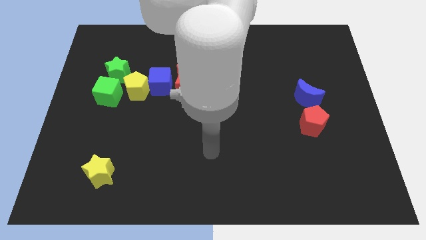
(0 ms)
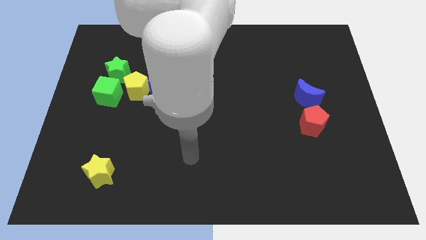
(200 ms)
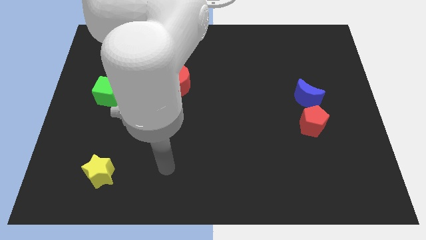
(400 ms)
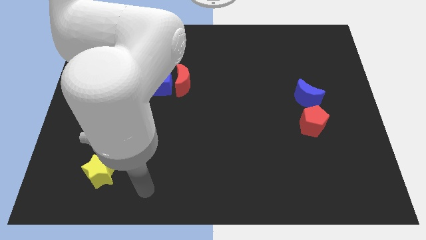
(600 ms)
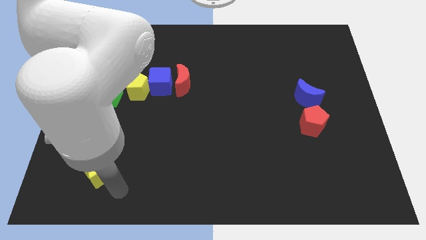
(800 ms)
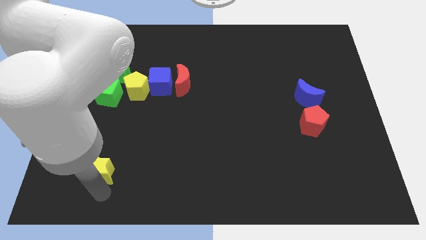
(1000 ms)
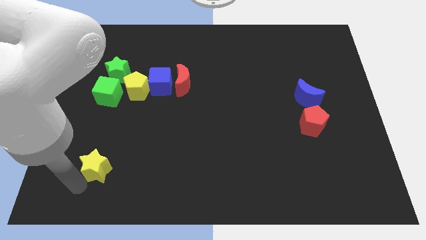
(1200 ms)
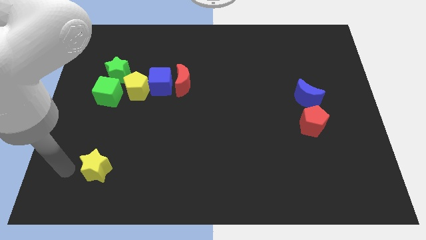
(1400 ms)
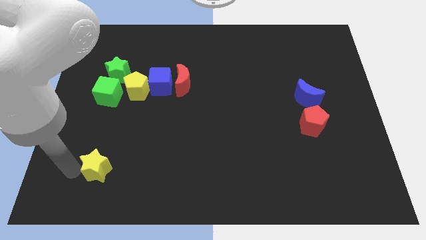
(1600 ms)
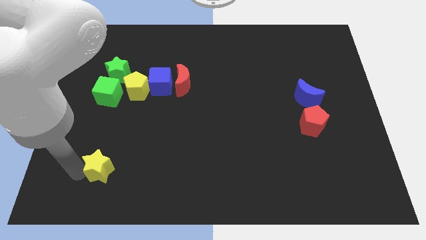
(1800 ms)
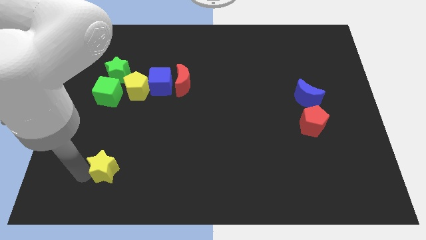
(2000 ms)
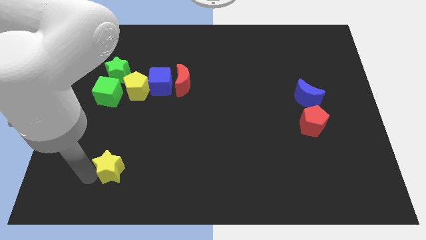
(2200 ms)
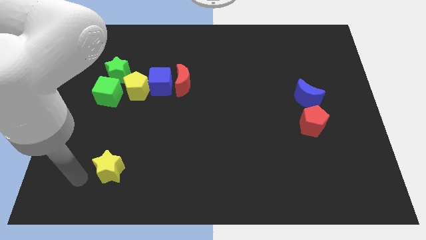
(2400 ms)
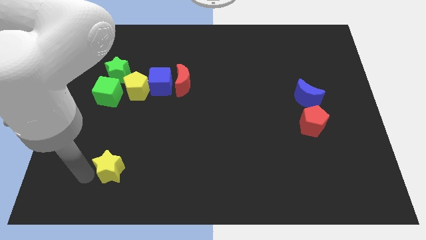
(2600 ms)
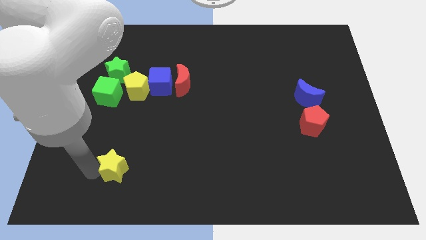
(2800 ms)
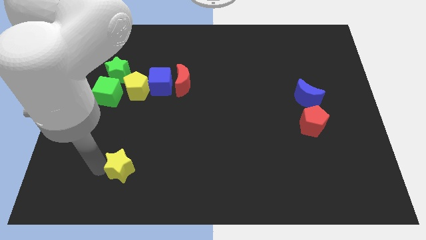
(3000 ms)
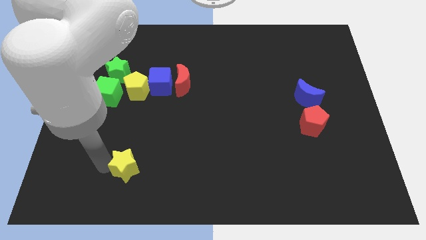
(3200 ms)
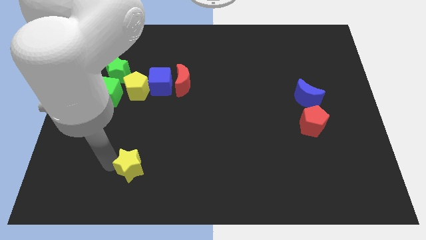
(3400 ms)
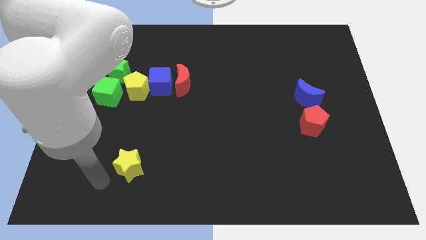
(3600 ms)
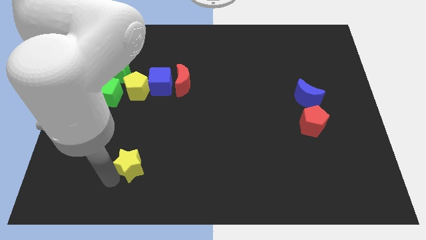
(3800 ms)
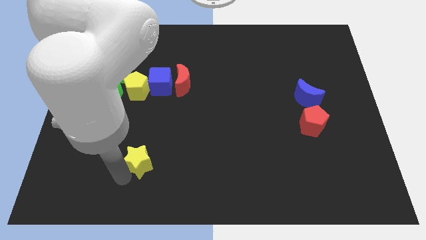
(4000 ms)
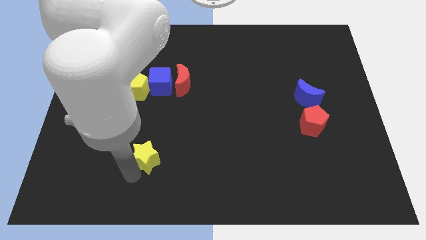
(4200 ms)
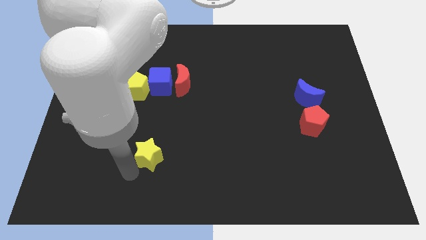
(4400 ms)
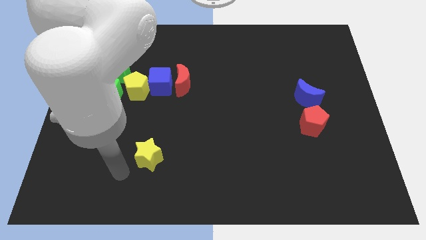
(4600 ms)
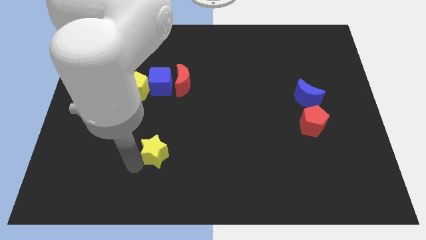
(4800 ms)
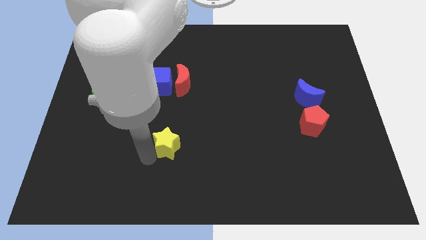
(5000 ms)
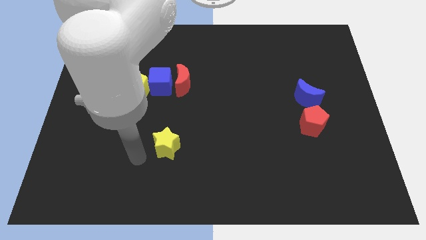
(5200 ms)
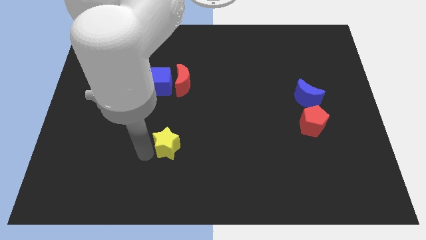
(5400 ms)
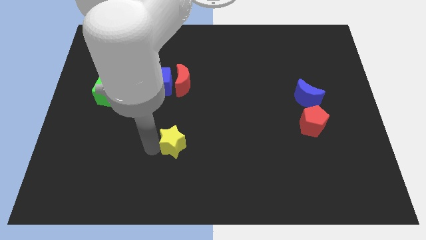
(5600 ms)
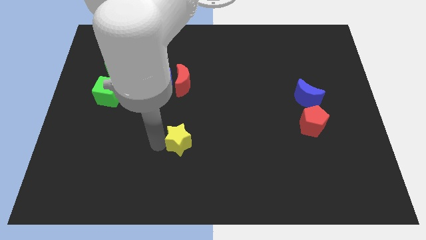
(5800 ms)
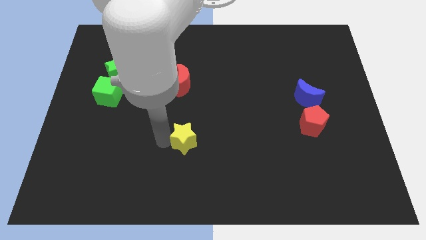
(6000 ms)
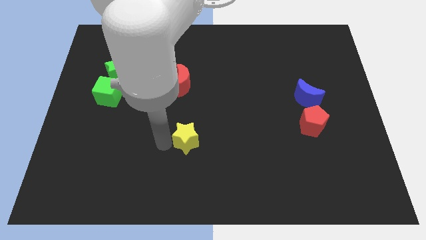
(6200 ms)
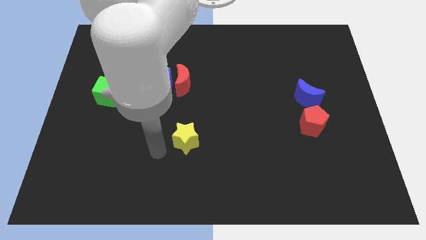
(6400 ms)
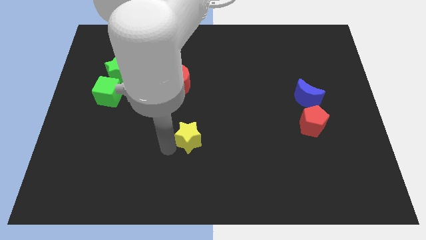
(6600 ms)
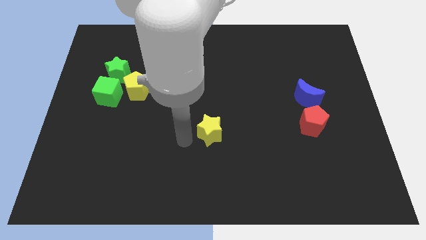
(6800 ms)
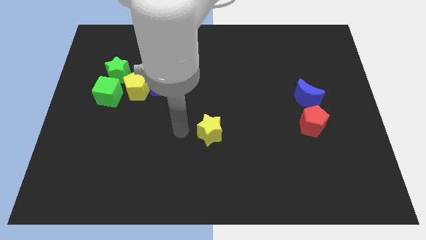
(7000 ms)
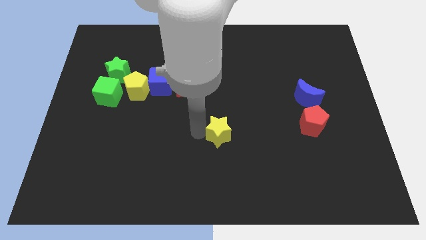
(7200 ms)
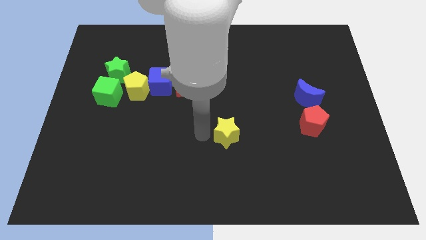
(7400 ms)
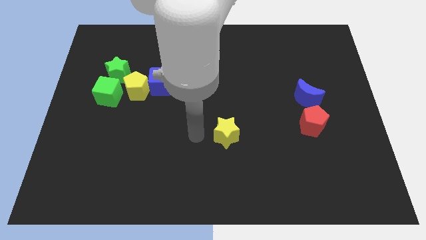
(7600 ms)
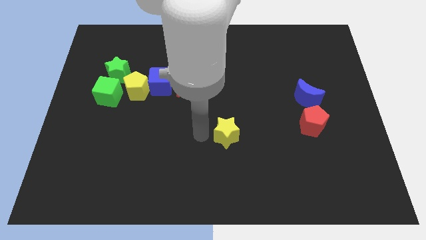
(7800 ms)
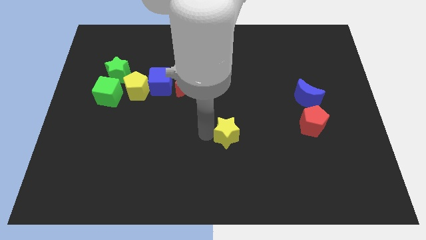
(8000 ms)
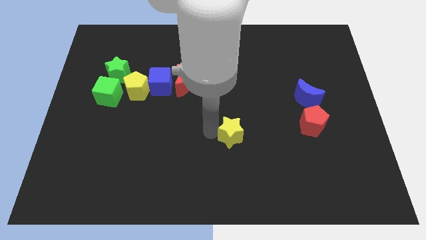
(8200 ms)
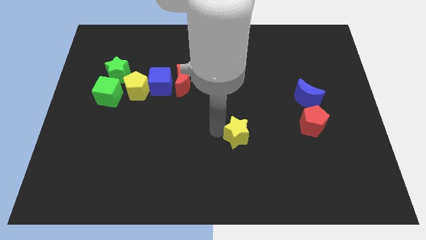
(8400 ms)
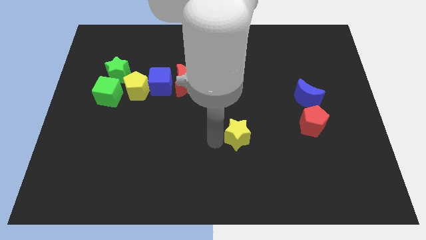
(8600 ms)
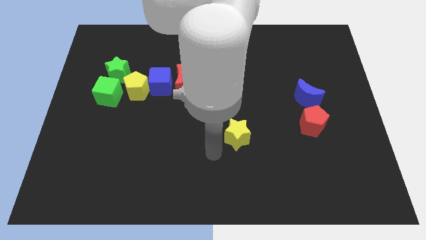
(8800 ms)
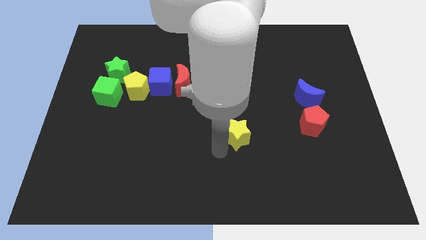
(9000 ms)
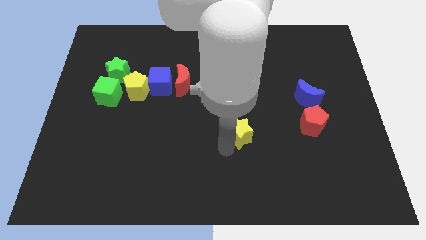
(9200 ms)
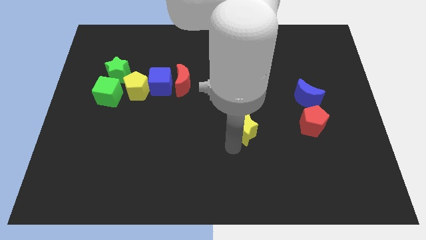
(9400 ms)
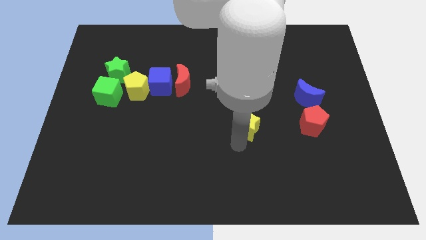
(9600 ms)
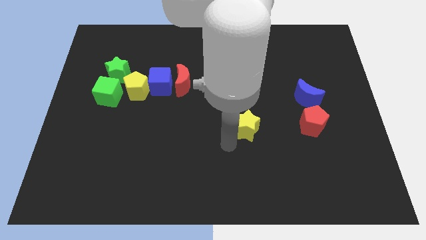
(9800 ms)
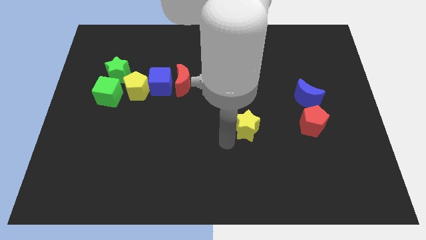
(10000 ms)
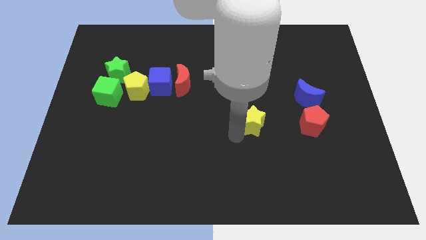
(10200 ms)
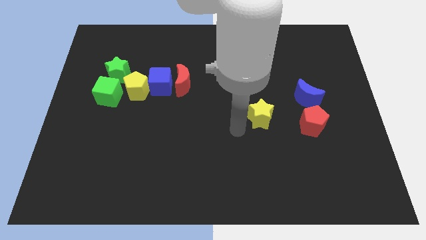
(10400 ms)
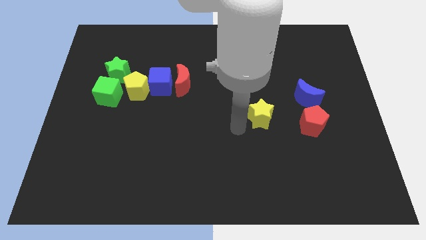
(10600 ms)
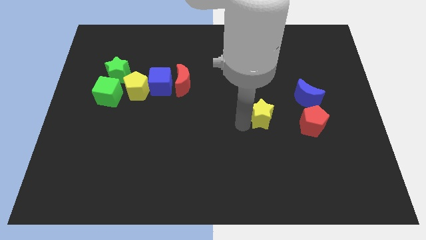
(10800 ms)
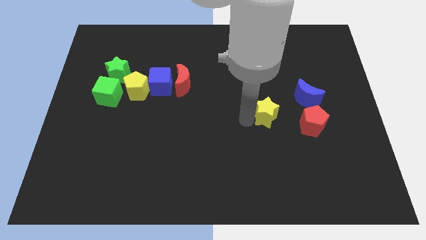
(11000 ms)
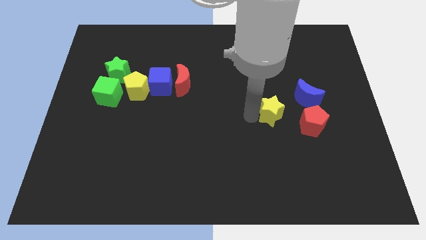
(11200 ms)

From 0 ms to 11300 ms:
move the yellow star diagonally up and to the left of the red pentagon

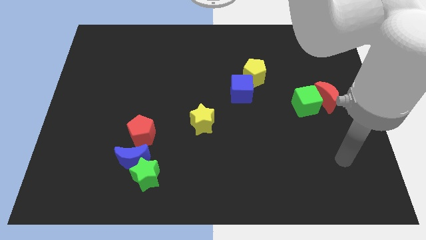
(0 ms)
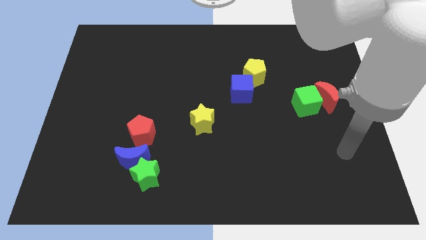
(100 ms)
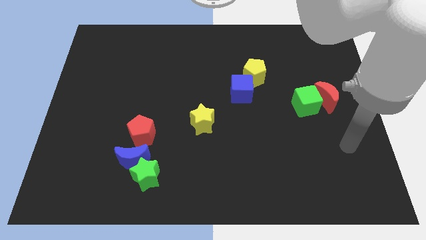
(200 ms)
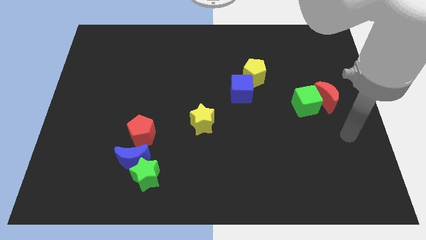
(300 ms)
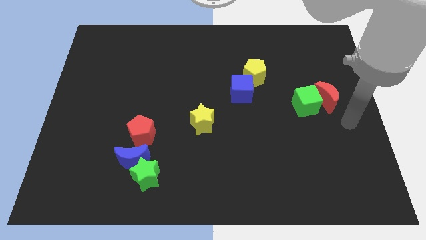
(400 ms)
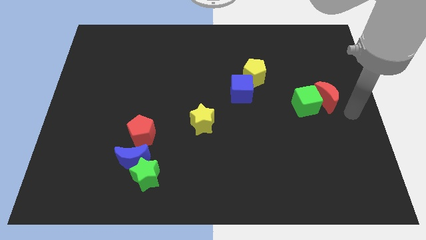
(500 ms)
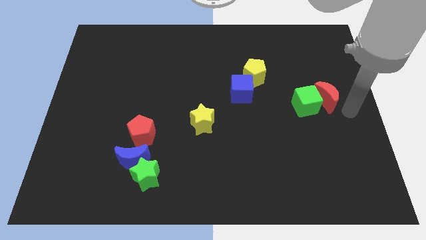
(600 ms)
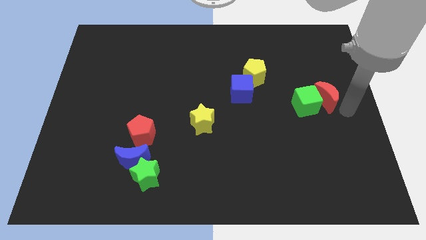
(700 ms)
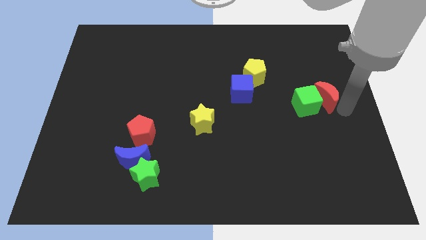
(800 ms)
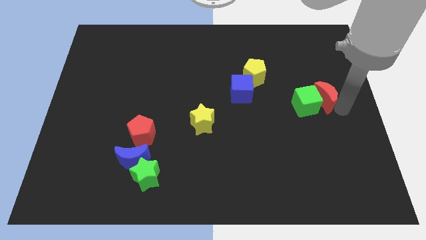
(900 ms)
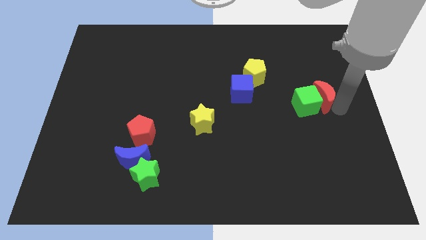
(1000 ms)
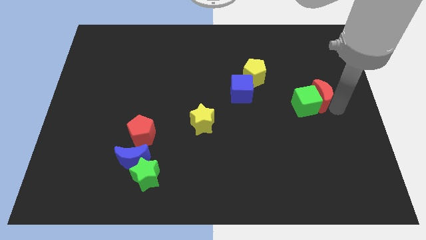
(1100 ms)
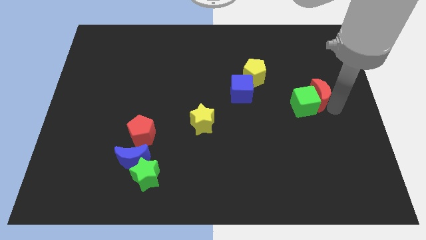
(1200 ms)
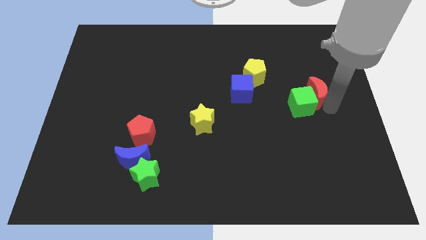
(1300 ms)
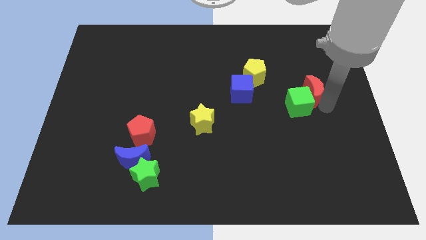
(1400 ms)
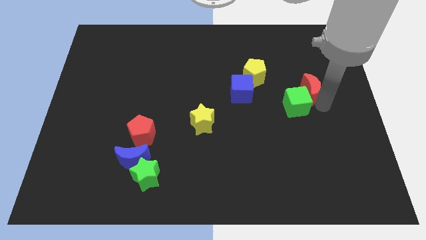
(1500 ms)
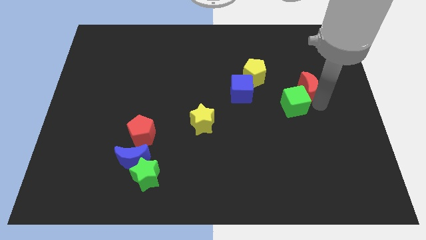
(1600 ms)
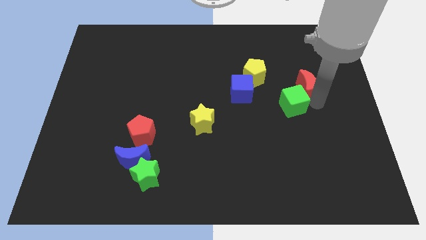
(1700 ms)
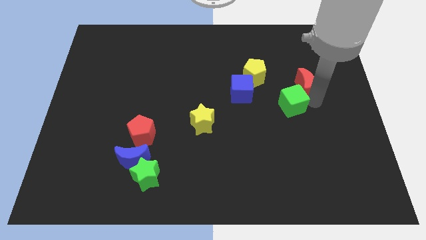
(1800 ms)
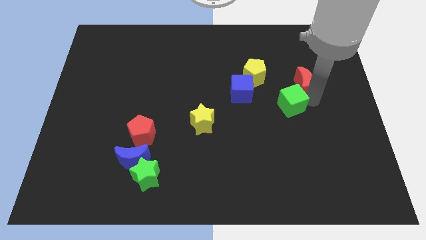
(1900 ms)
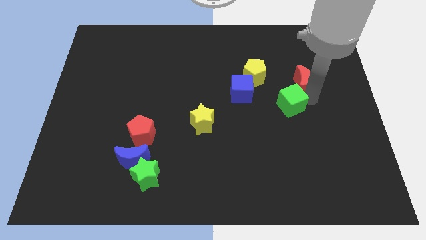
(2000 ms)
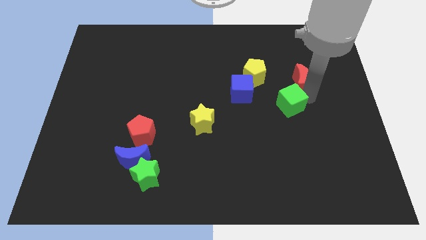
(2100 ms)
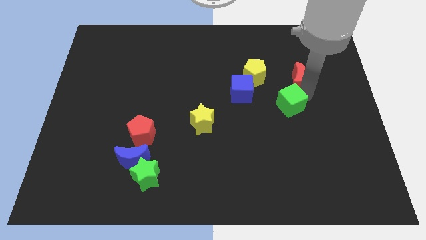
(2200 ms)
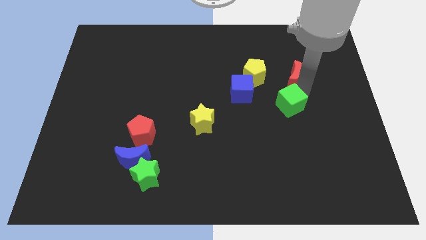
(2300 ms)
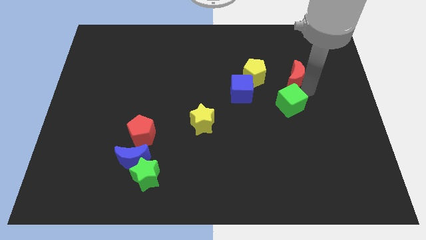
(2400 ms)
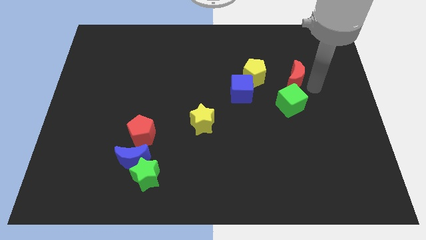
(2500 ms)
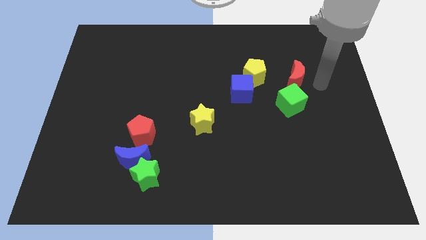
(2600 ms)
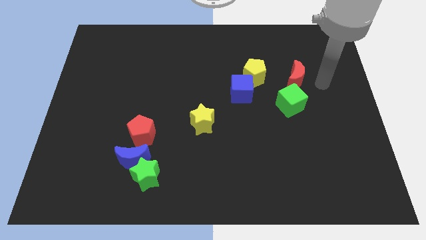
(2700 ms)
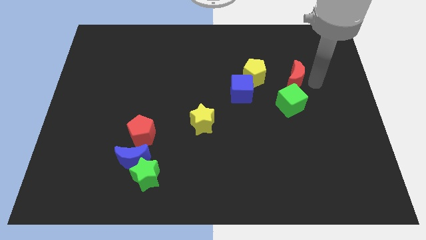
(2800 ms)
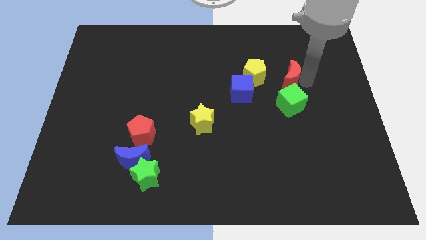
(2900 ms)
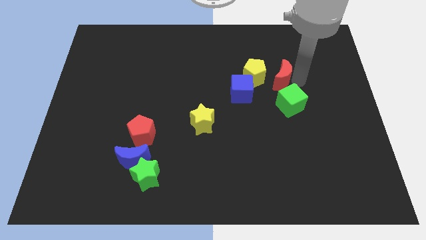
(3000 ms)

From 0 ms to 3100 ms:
slide the red moon diagonally up and to the right of the blue cube
